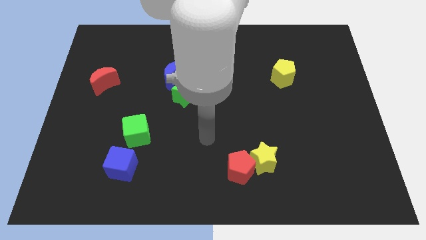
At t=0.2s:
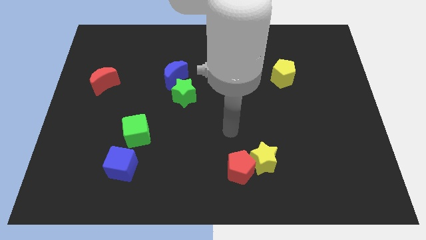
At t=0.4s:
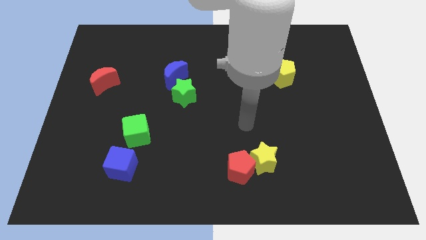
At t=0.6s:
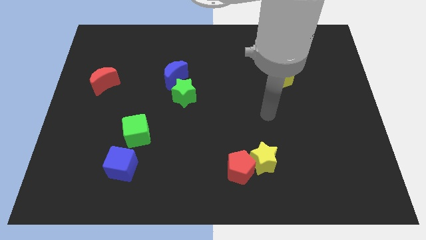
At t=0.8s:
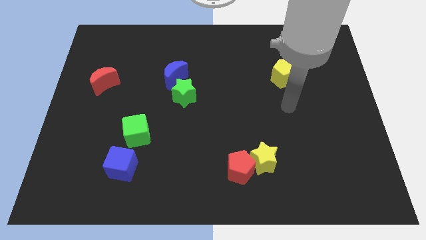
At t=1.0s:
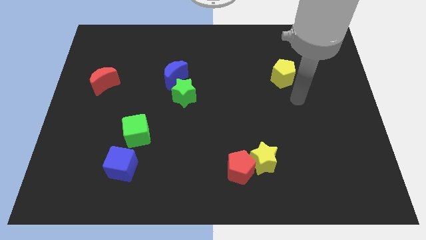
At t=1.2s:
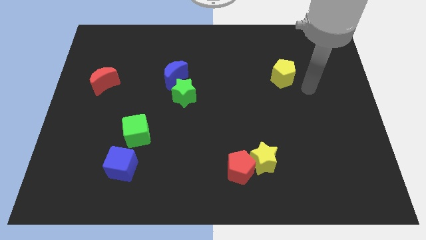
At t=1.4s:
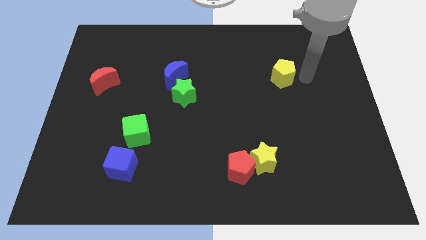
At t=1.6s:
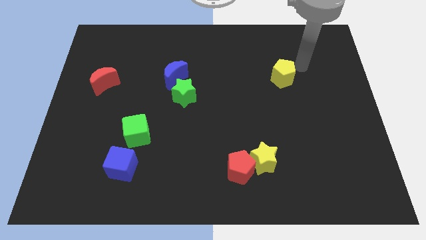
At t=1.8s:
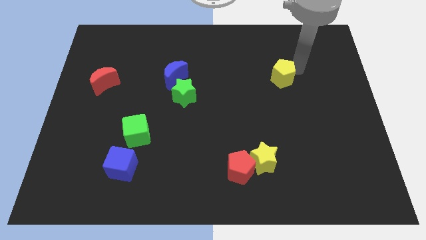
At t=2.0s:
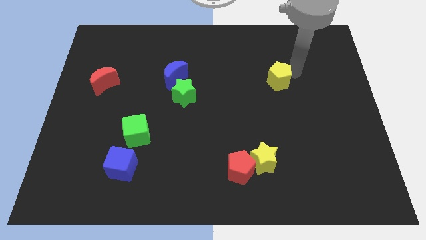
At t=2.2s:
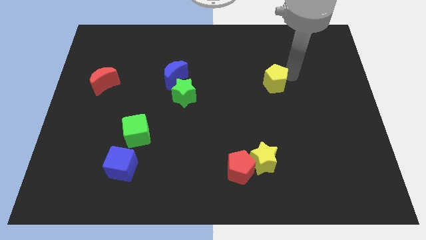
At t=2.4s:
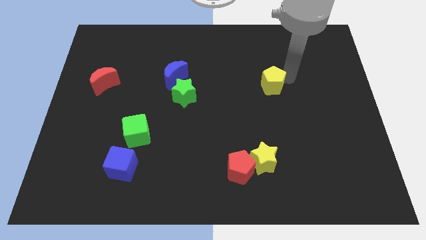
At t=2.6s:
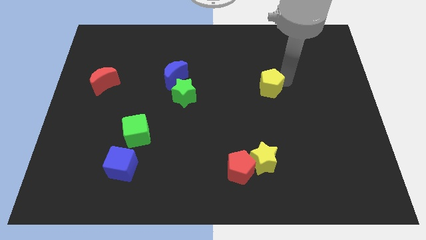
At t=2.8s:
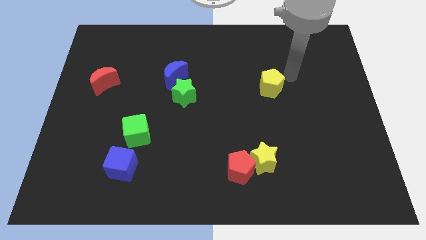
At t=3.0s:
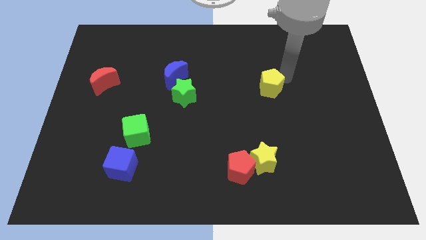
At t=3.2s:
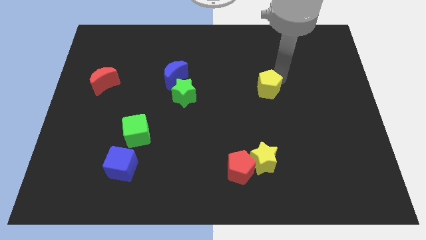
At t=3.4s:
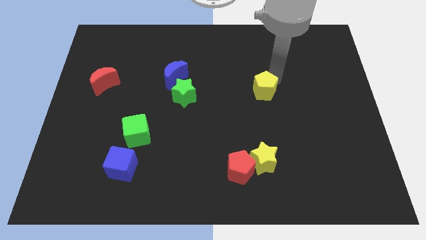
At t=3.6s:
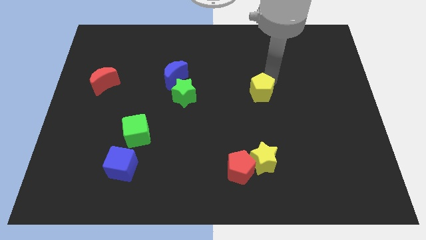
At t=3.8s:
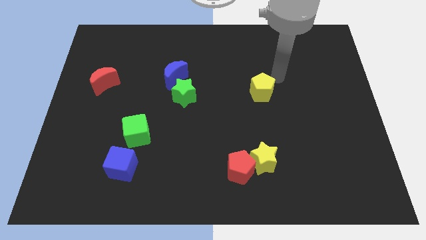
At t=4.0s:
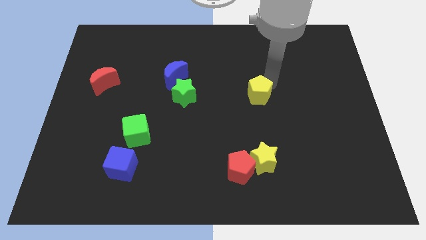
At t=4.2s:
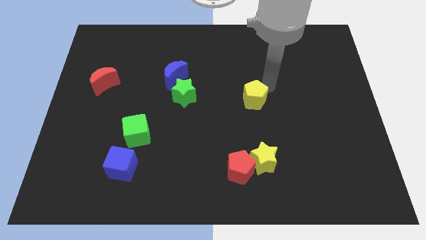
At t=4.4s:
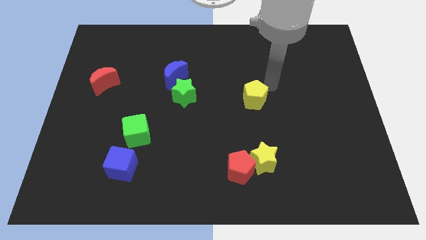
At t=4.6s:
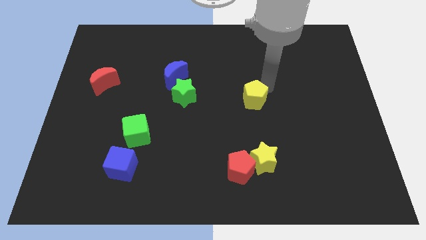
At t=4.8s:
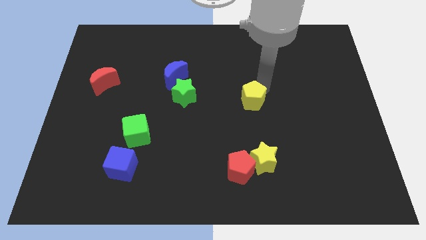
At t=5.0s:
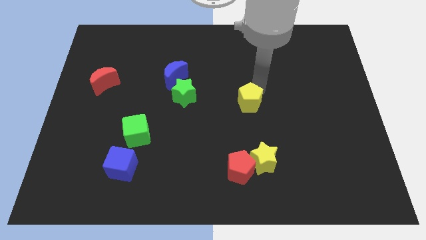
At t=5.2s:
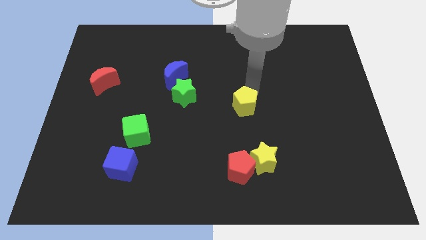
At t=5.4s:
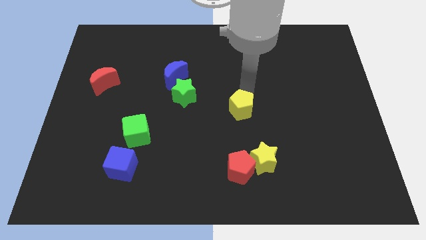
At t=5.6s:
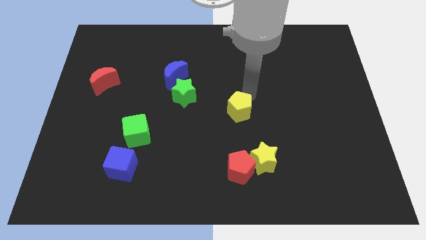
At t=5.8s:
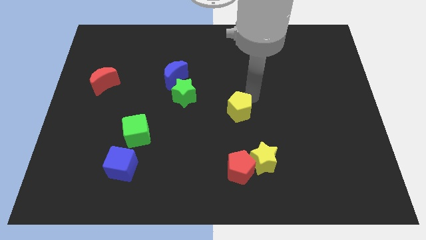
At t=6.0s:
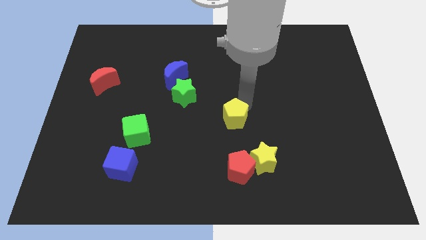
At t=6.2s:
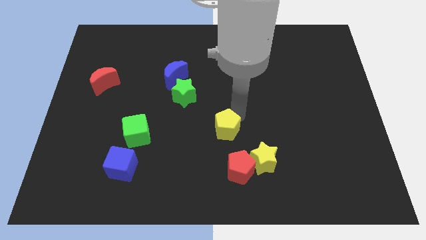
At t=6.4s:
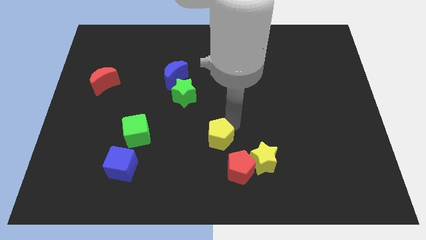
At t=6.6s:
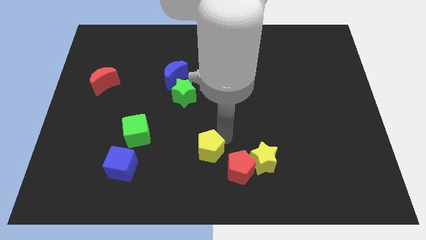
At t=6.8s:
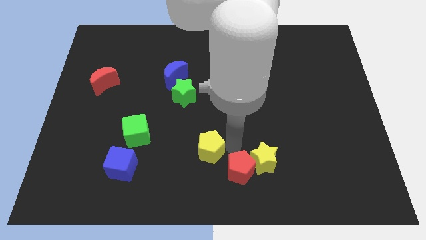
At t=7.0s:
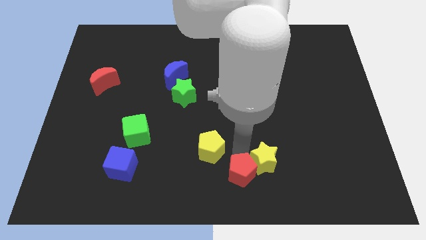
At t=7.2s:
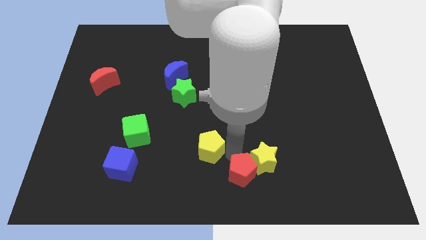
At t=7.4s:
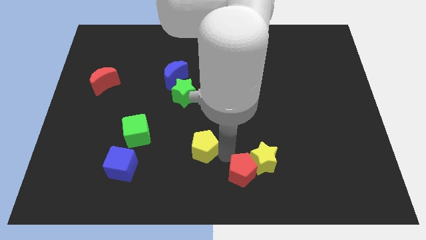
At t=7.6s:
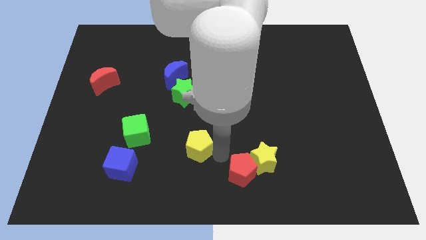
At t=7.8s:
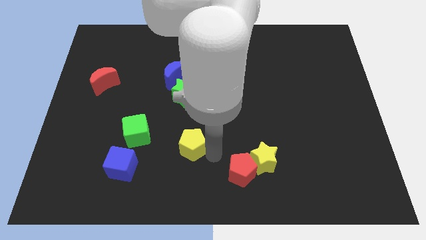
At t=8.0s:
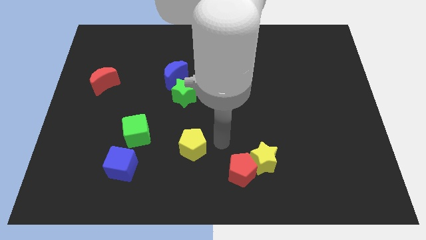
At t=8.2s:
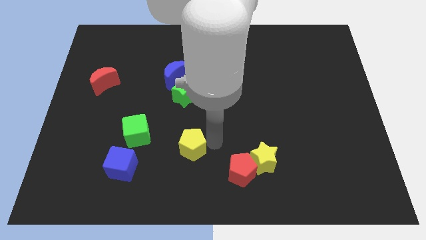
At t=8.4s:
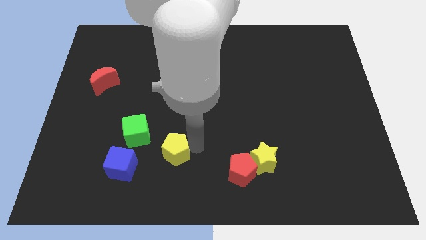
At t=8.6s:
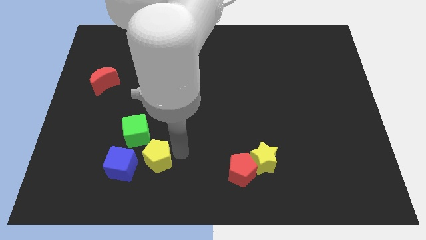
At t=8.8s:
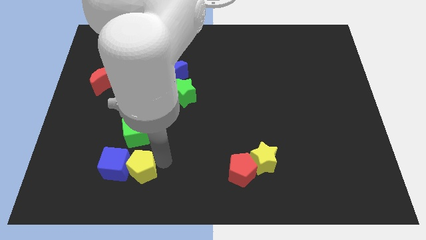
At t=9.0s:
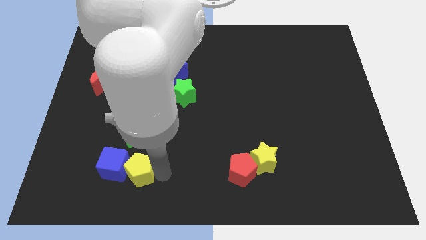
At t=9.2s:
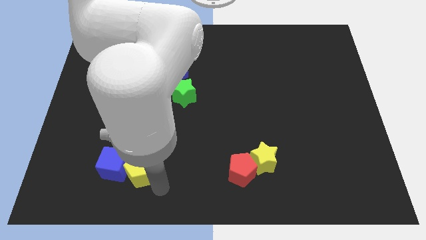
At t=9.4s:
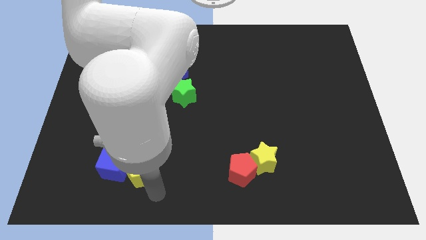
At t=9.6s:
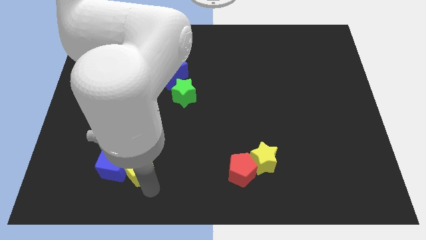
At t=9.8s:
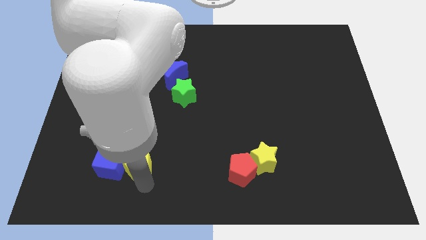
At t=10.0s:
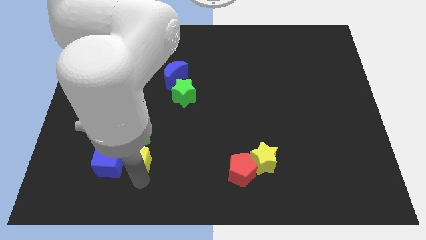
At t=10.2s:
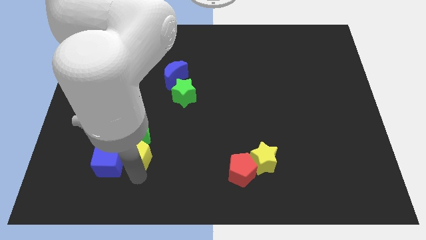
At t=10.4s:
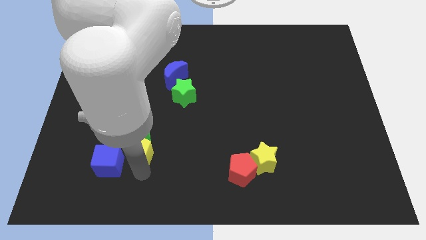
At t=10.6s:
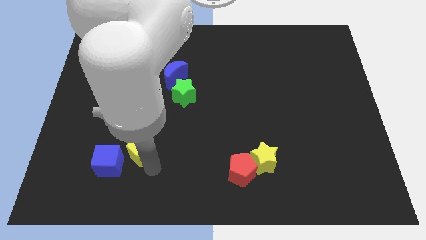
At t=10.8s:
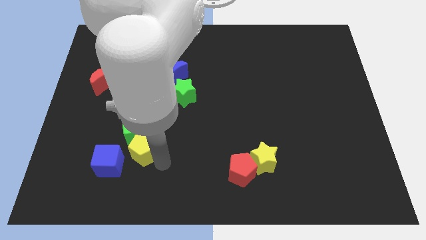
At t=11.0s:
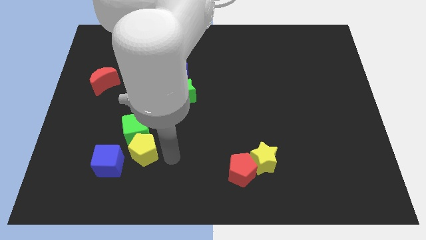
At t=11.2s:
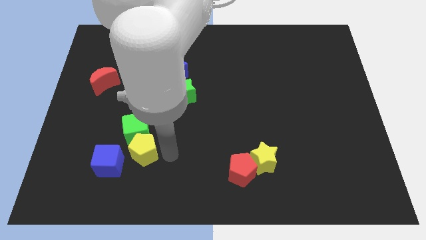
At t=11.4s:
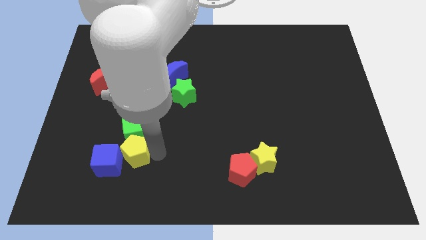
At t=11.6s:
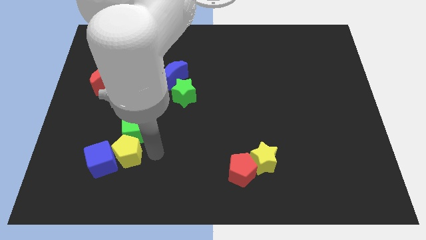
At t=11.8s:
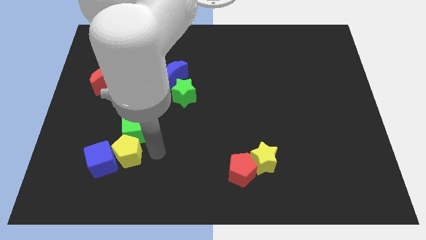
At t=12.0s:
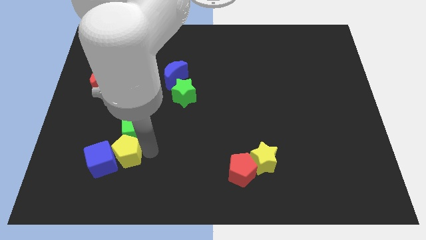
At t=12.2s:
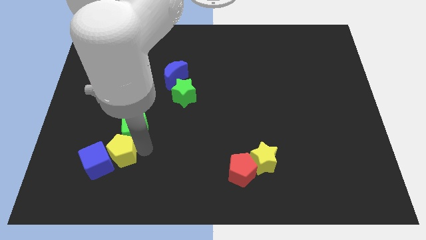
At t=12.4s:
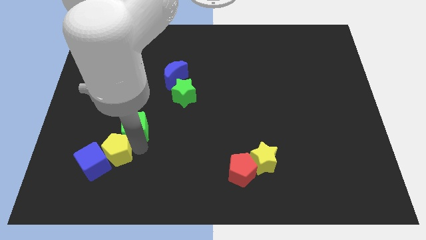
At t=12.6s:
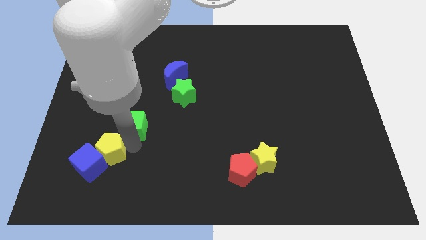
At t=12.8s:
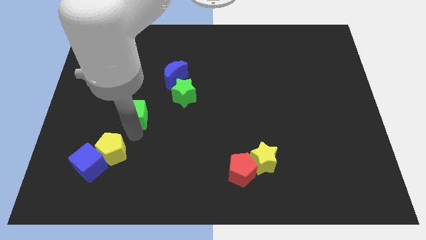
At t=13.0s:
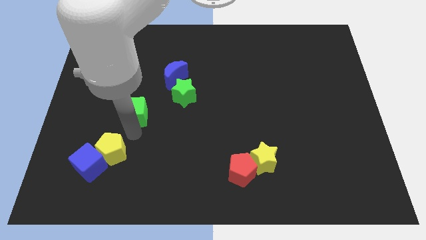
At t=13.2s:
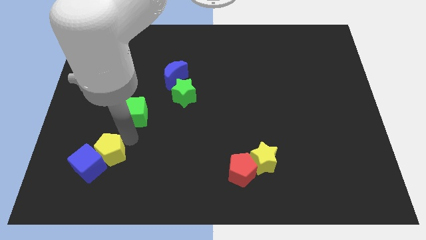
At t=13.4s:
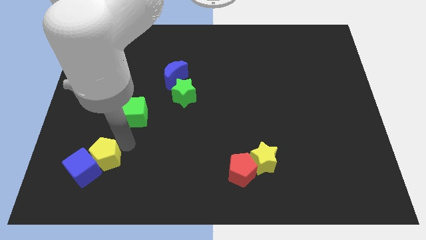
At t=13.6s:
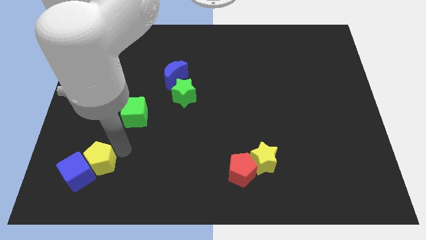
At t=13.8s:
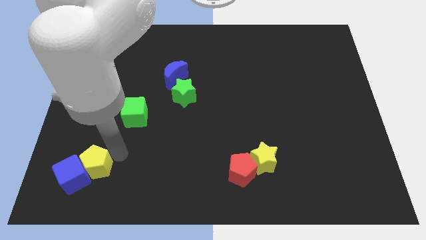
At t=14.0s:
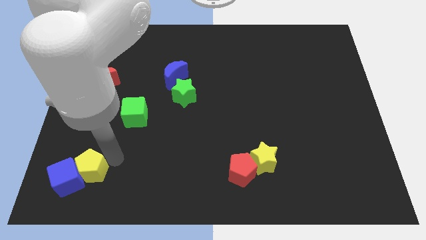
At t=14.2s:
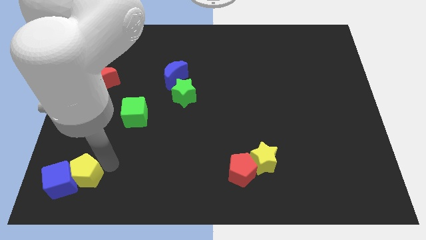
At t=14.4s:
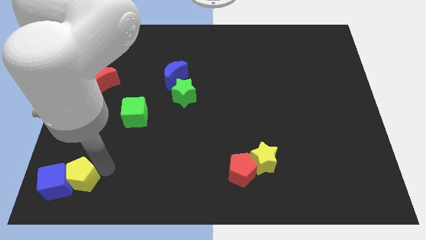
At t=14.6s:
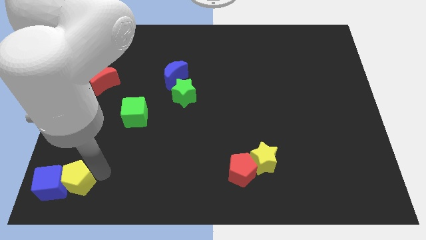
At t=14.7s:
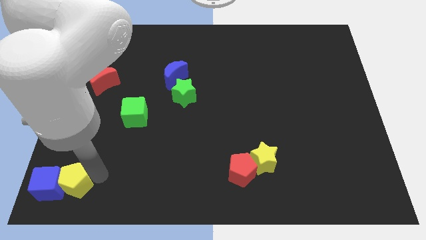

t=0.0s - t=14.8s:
put the yellow pentagon to the bottom left corner
